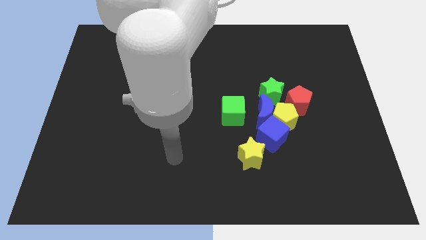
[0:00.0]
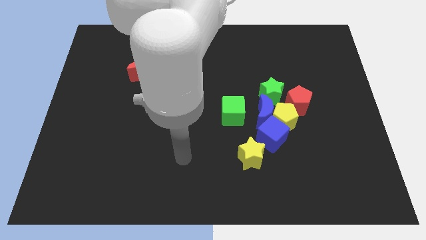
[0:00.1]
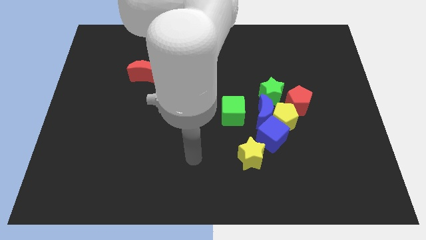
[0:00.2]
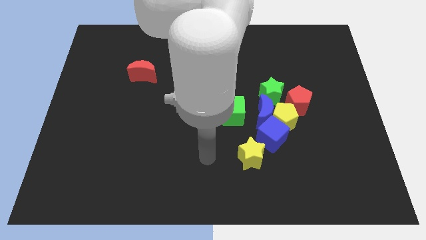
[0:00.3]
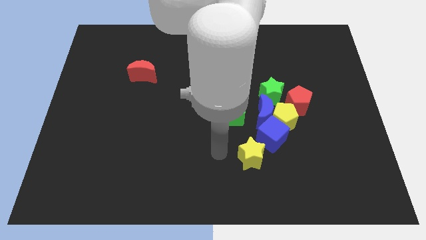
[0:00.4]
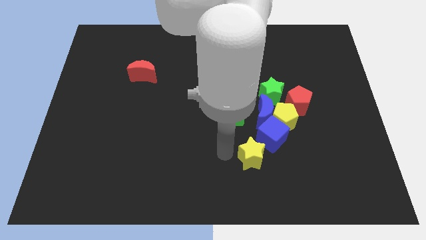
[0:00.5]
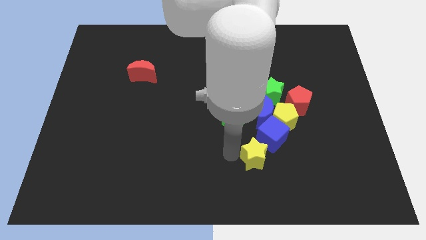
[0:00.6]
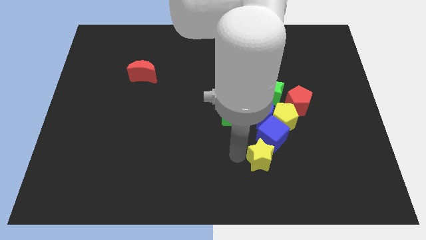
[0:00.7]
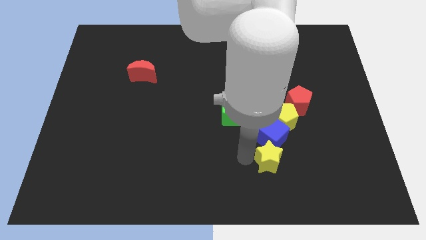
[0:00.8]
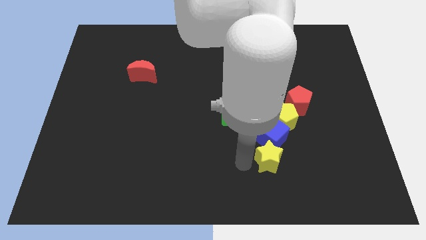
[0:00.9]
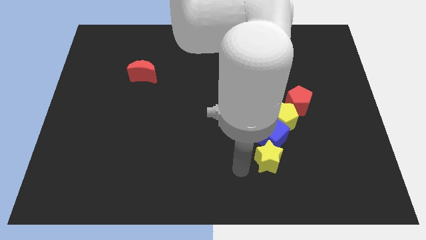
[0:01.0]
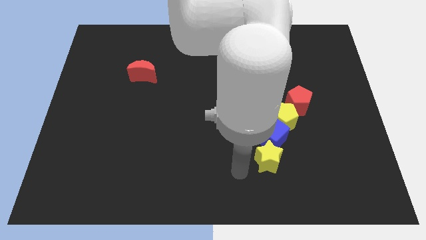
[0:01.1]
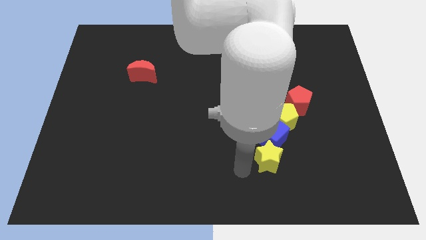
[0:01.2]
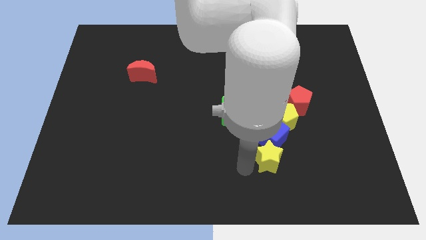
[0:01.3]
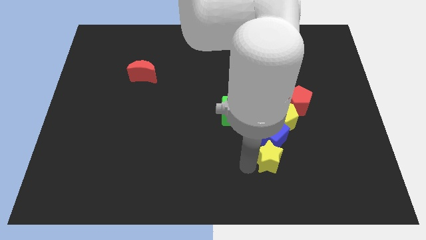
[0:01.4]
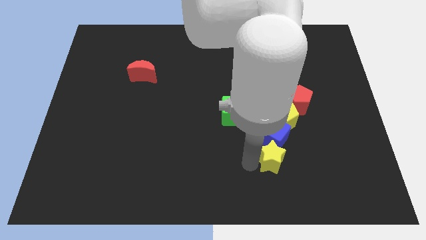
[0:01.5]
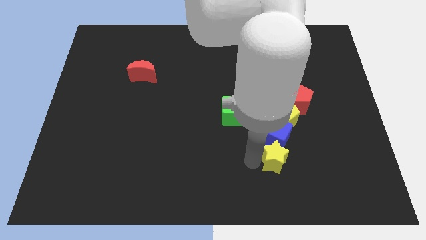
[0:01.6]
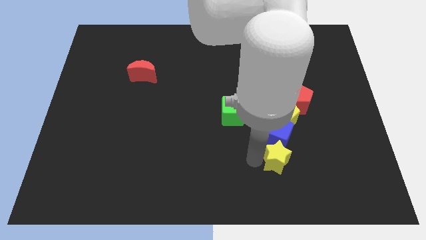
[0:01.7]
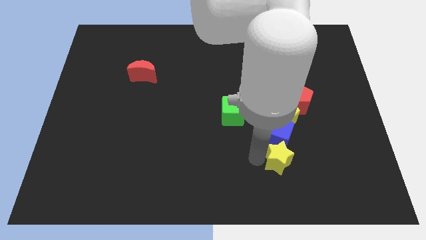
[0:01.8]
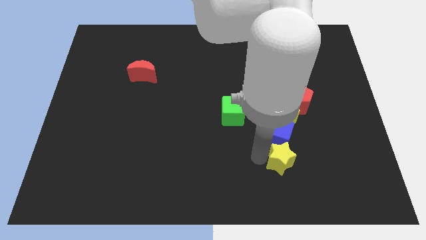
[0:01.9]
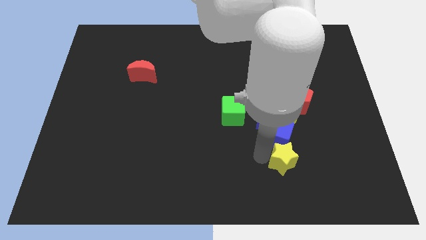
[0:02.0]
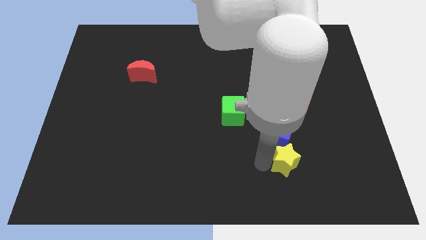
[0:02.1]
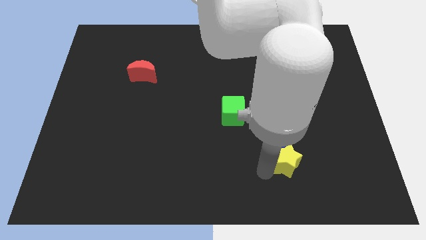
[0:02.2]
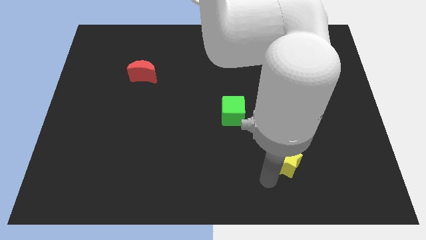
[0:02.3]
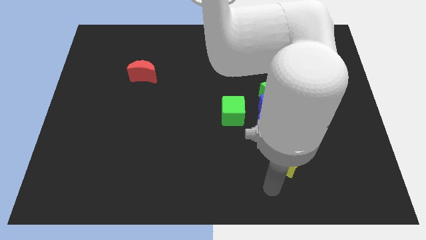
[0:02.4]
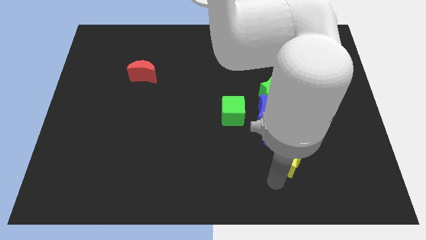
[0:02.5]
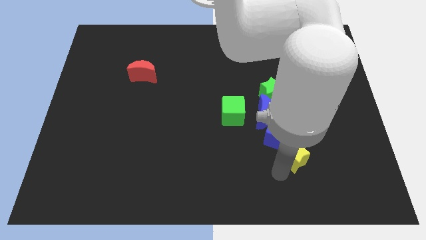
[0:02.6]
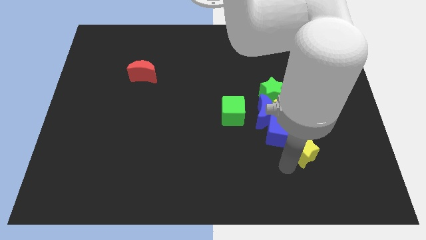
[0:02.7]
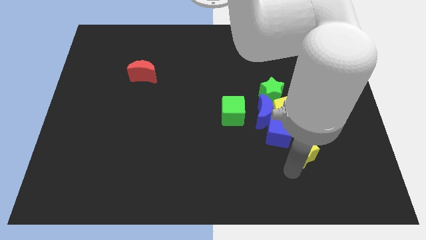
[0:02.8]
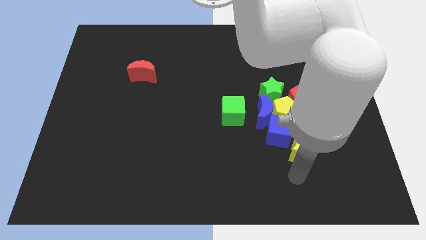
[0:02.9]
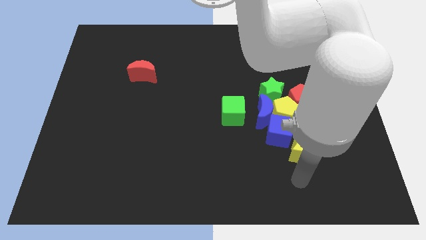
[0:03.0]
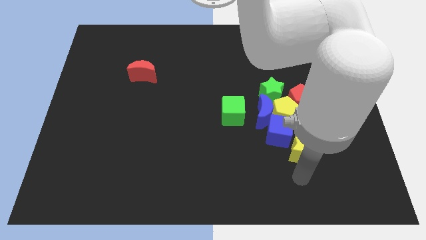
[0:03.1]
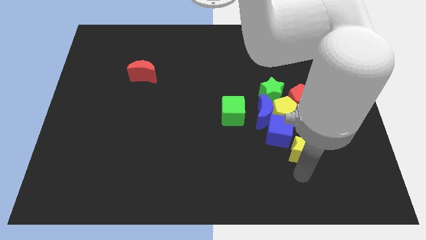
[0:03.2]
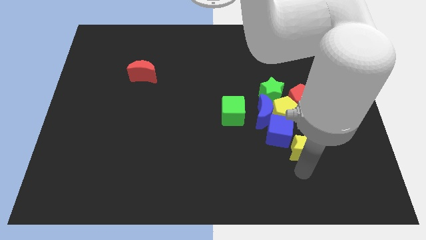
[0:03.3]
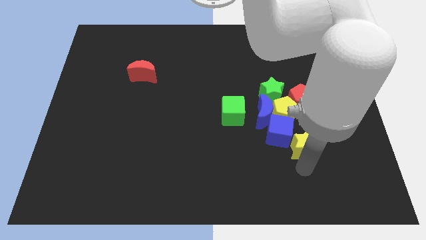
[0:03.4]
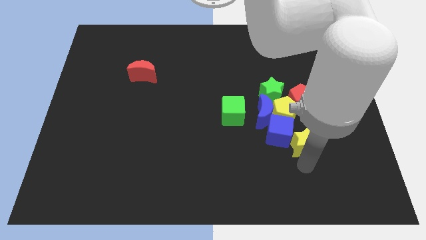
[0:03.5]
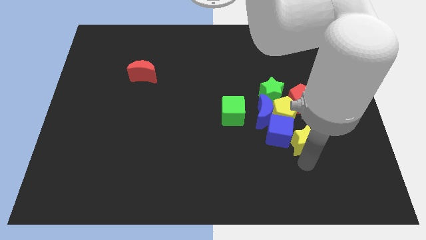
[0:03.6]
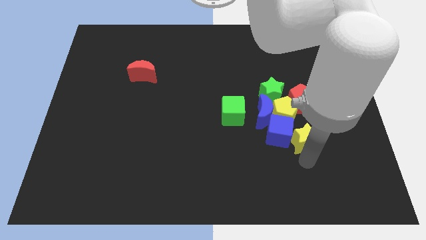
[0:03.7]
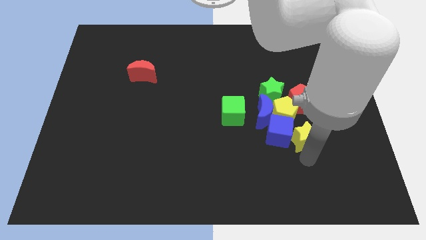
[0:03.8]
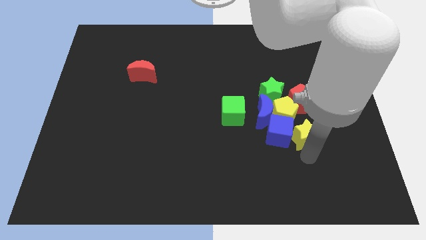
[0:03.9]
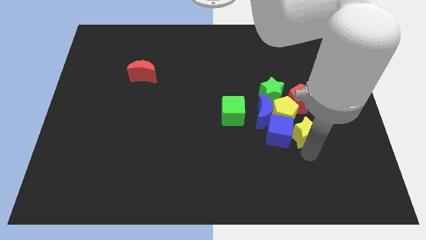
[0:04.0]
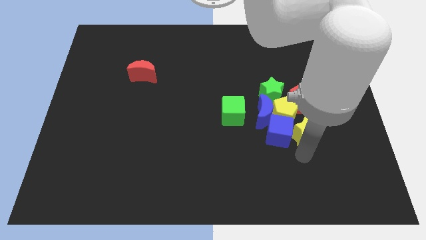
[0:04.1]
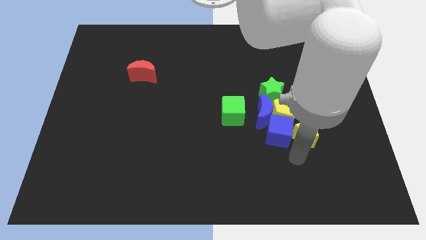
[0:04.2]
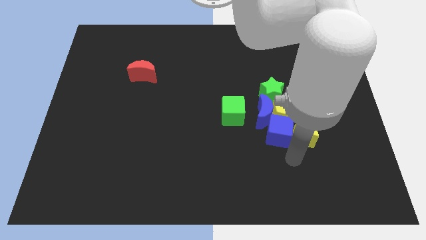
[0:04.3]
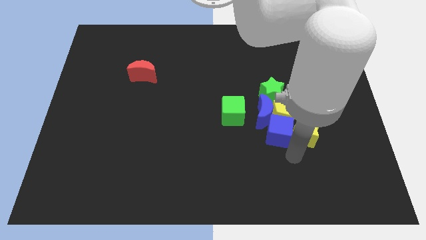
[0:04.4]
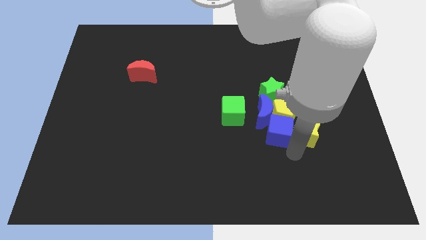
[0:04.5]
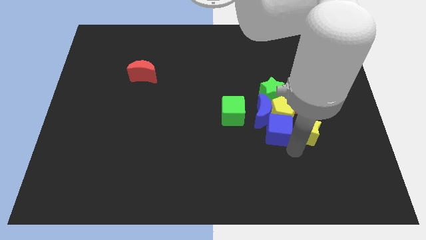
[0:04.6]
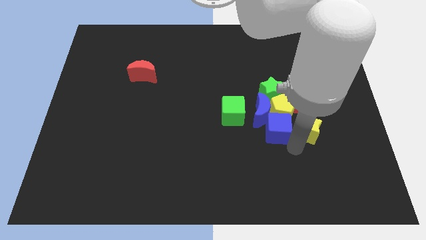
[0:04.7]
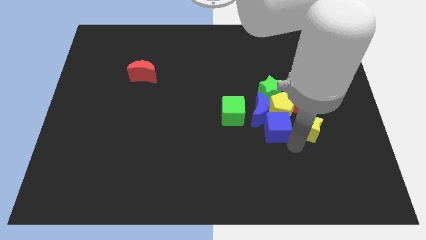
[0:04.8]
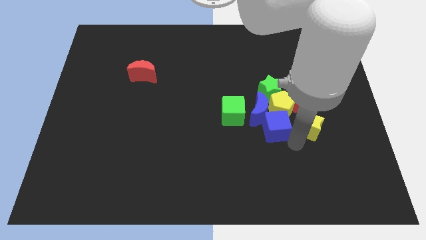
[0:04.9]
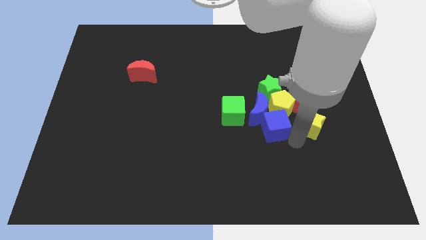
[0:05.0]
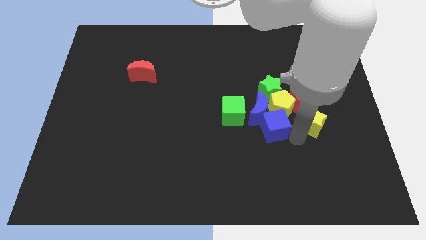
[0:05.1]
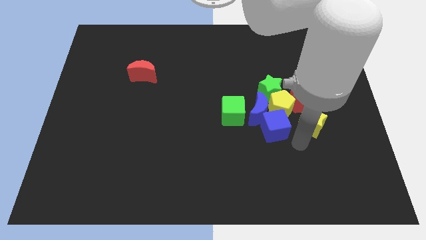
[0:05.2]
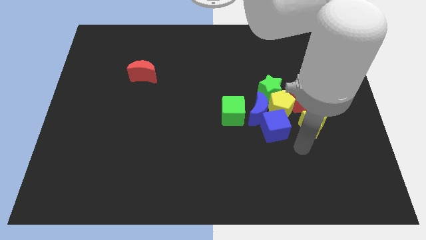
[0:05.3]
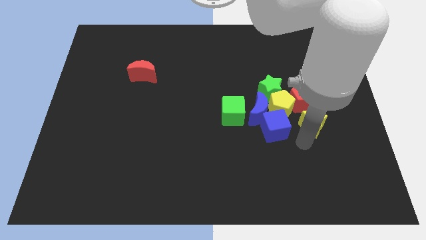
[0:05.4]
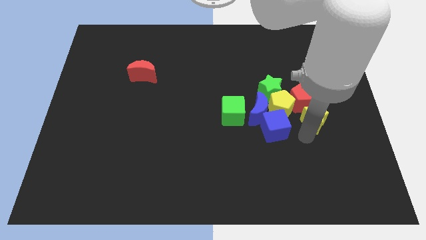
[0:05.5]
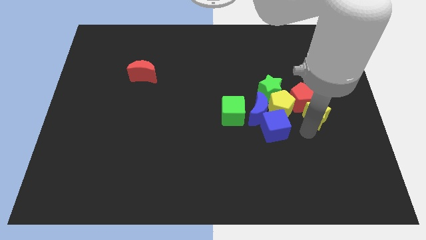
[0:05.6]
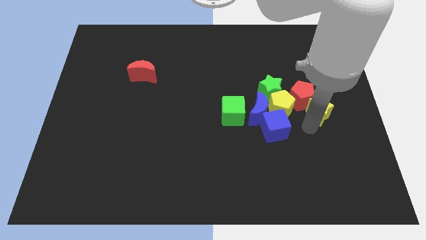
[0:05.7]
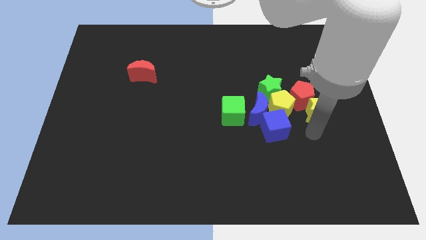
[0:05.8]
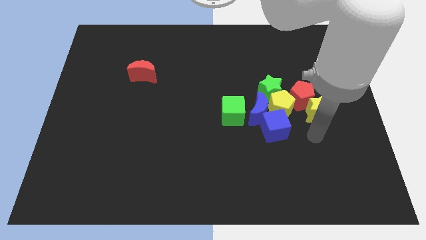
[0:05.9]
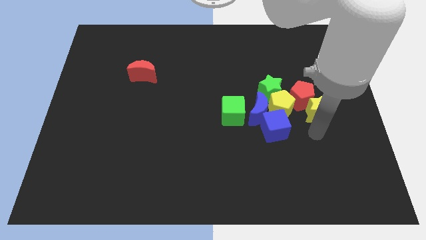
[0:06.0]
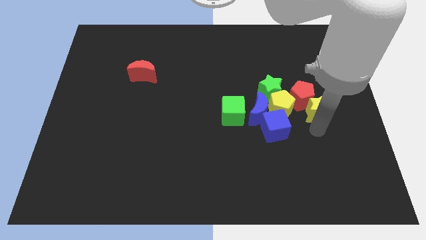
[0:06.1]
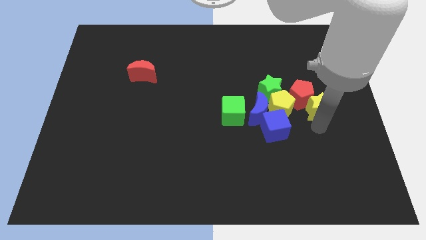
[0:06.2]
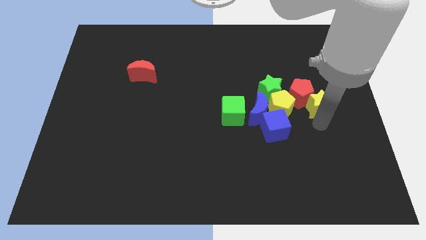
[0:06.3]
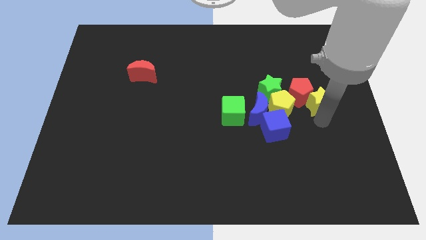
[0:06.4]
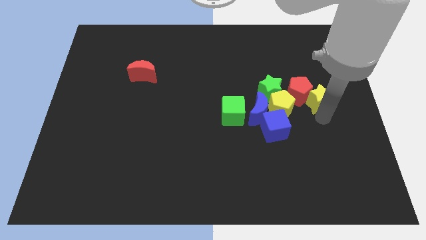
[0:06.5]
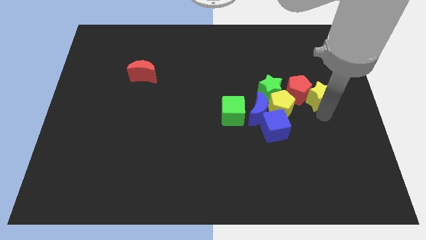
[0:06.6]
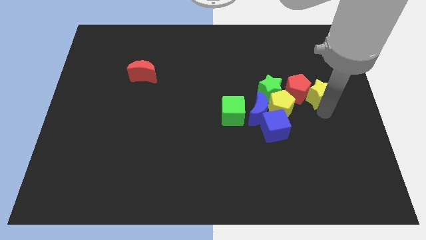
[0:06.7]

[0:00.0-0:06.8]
push the yellow star diagonally up and to the right of the red pentagon
